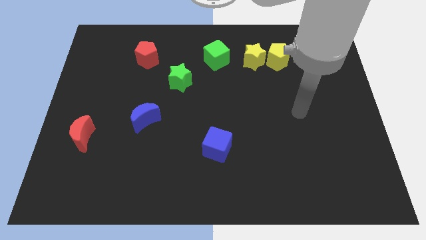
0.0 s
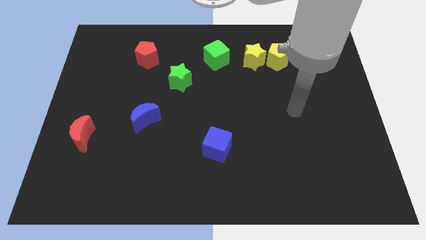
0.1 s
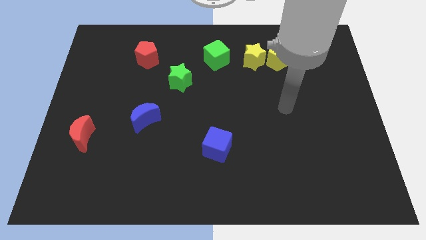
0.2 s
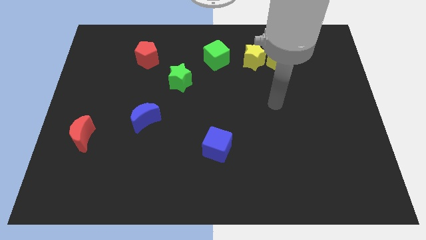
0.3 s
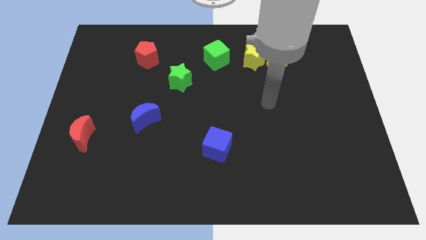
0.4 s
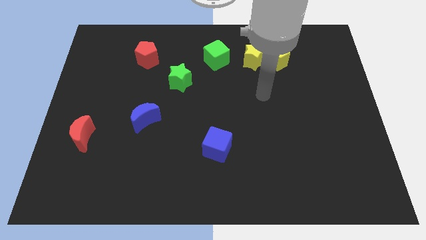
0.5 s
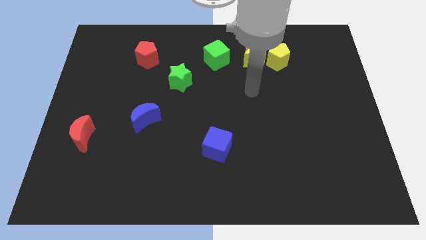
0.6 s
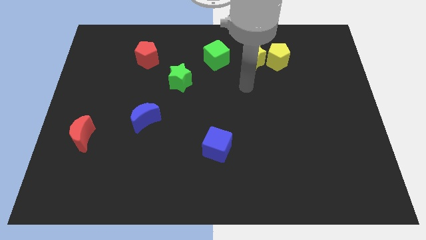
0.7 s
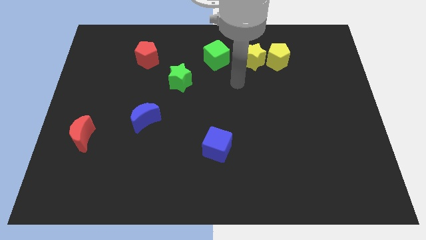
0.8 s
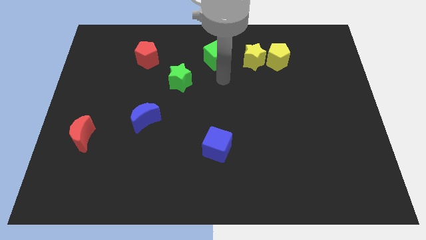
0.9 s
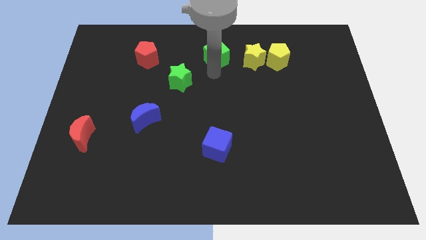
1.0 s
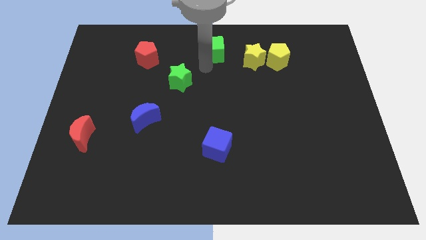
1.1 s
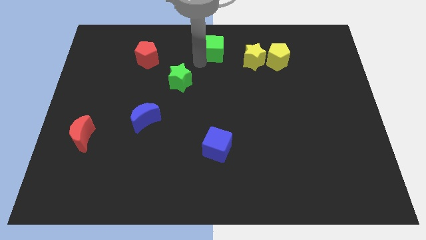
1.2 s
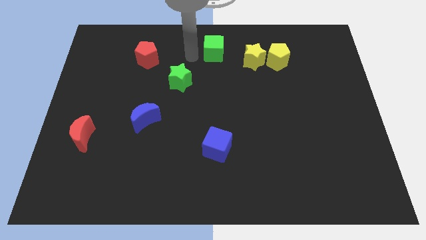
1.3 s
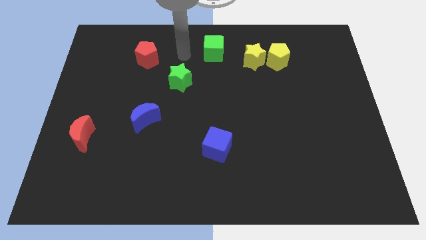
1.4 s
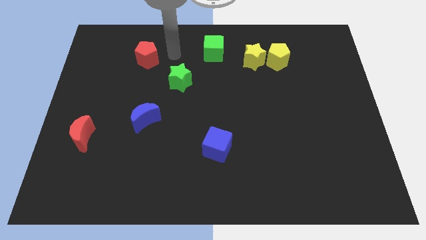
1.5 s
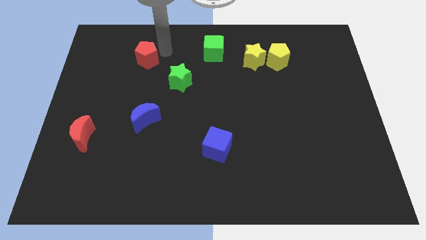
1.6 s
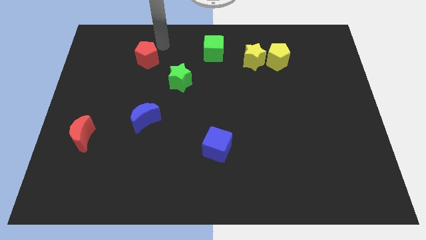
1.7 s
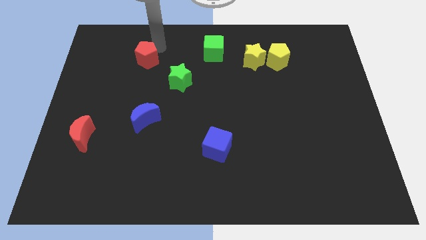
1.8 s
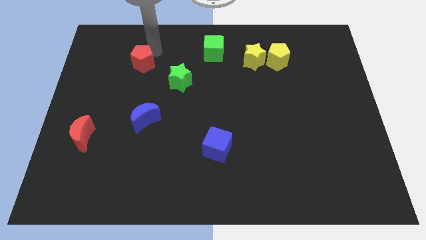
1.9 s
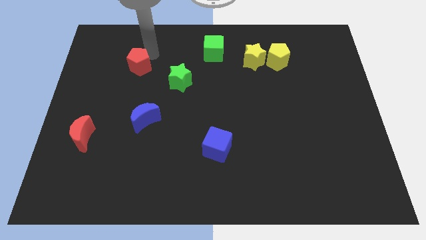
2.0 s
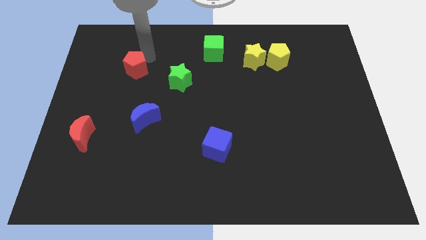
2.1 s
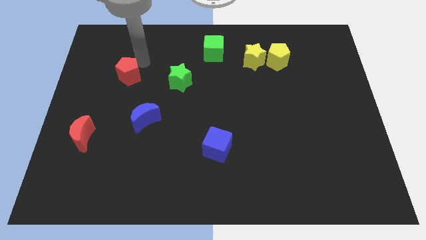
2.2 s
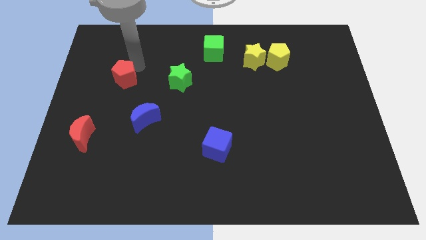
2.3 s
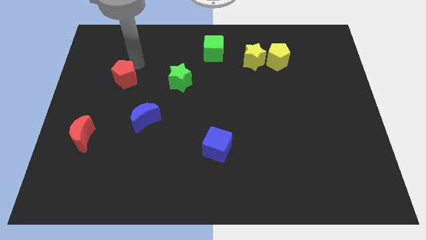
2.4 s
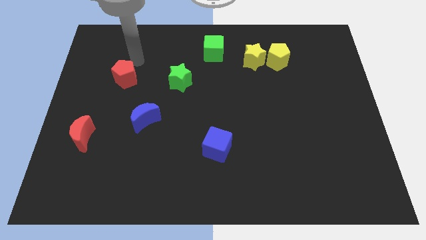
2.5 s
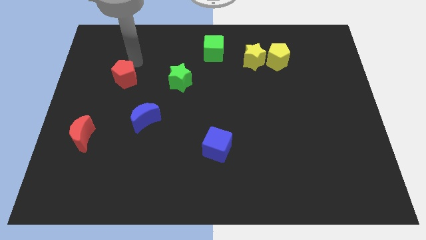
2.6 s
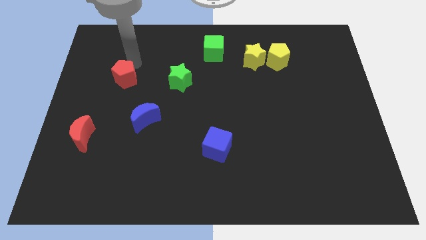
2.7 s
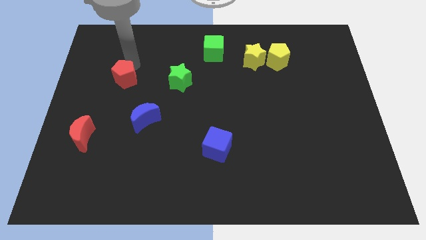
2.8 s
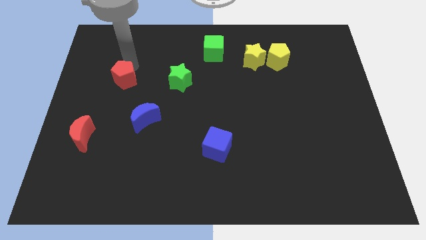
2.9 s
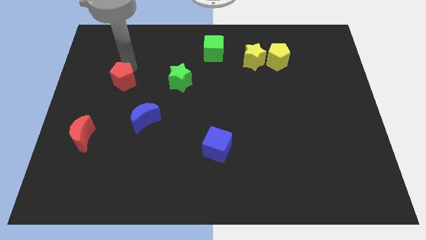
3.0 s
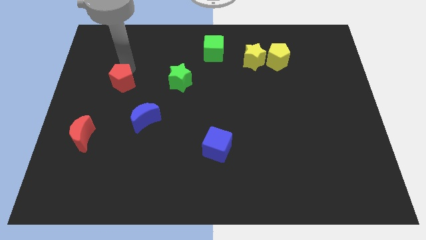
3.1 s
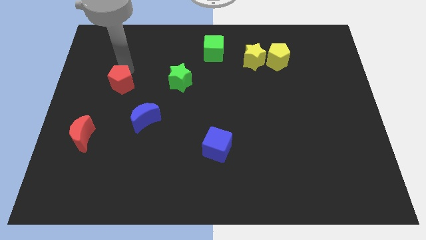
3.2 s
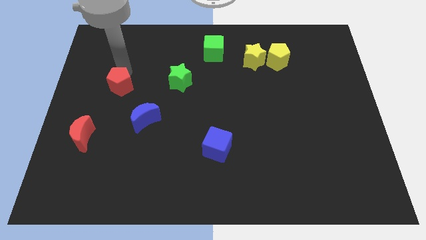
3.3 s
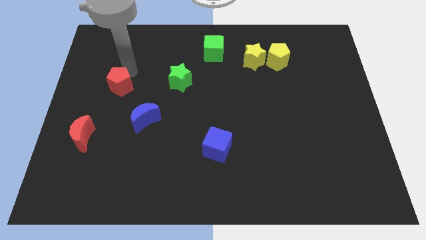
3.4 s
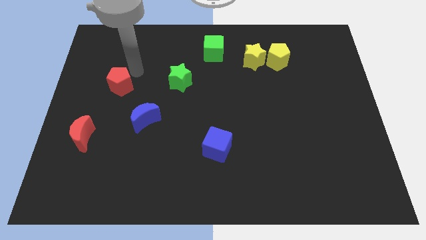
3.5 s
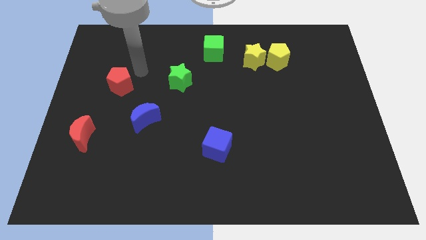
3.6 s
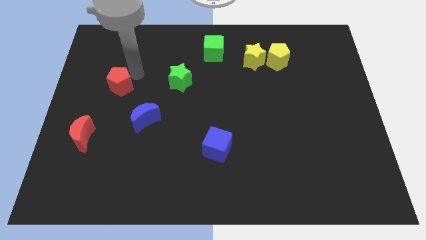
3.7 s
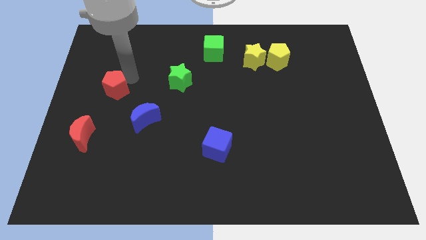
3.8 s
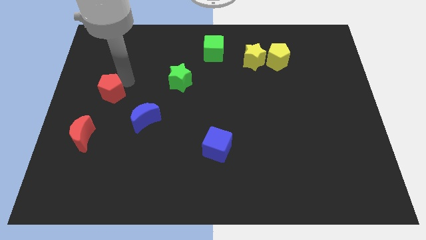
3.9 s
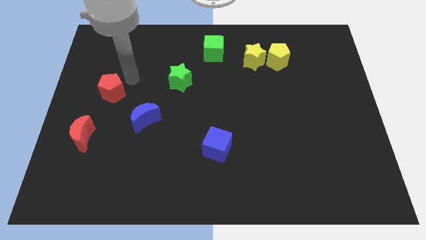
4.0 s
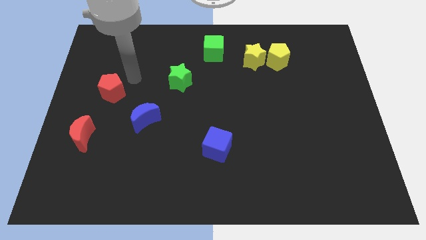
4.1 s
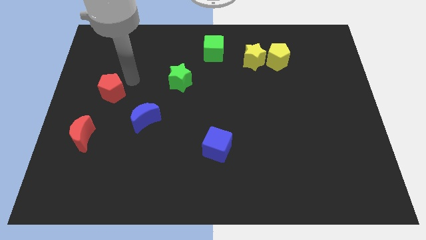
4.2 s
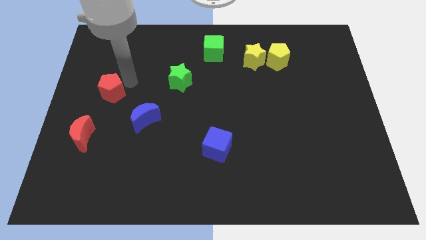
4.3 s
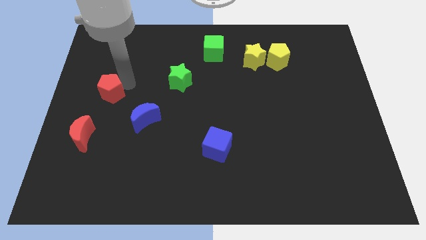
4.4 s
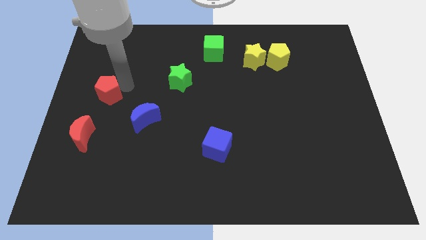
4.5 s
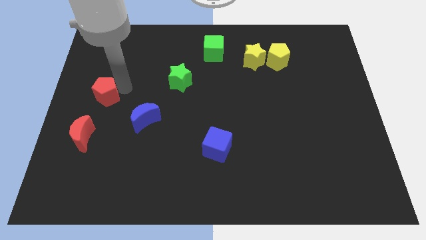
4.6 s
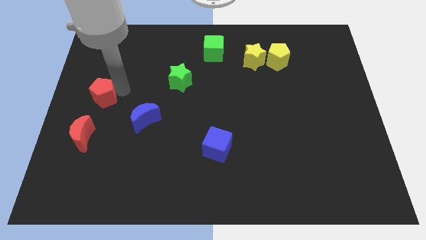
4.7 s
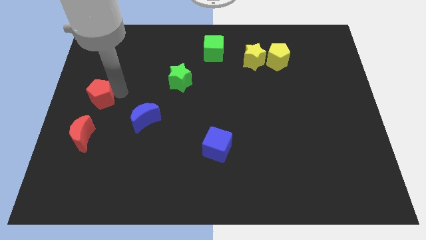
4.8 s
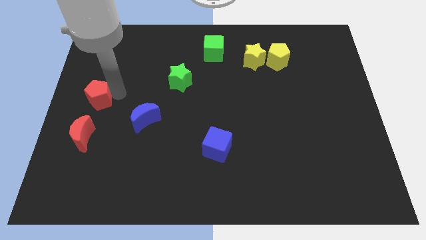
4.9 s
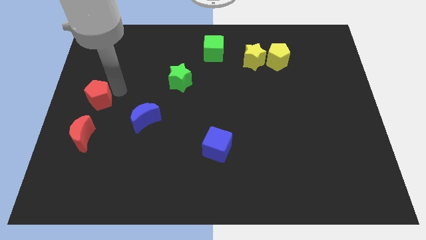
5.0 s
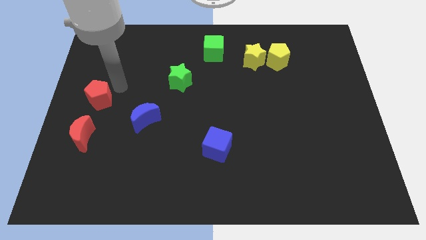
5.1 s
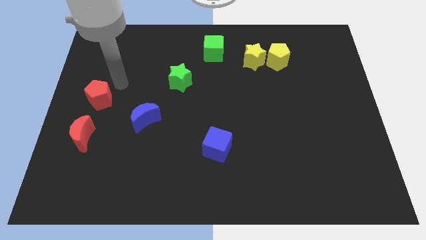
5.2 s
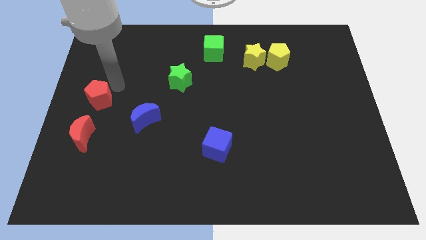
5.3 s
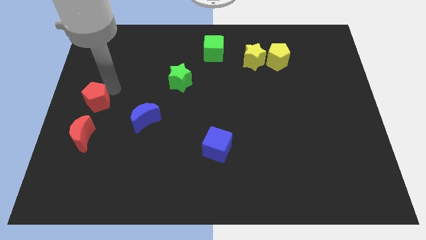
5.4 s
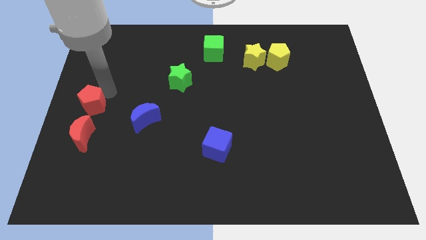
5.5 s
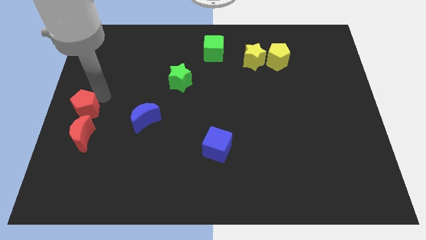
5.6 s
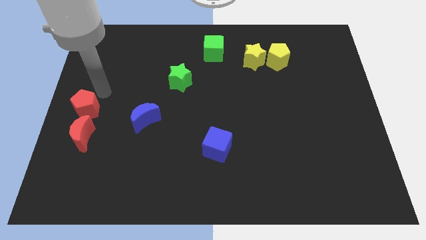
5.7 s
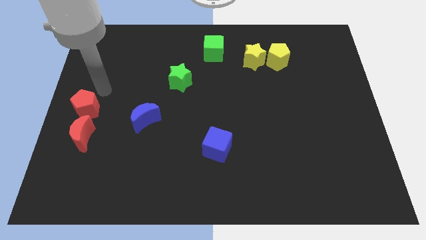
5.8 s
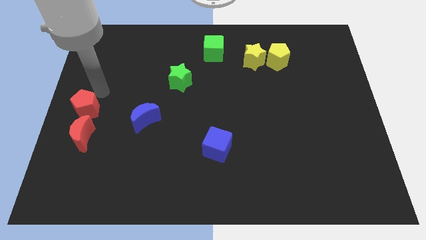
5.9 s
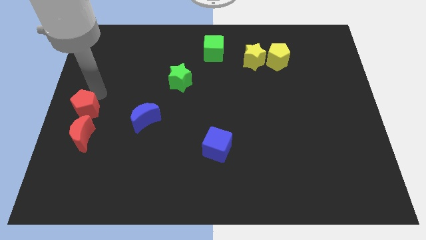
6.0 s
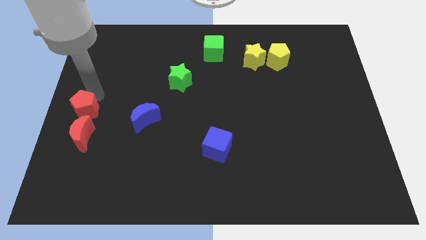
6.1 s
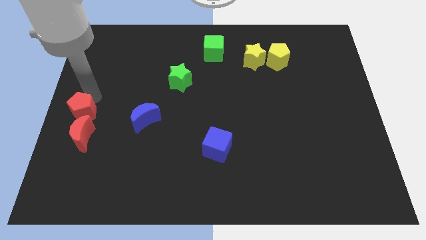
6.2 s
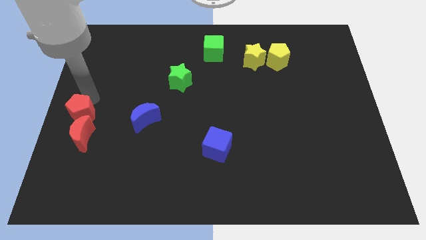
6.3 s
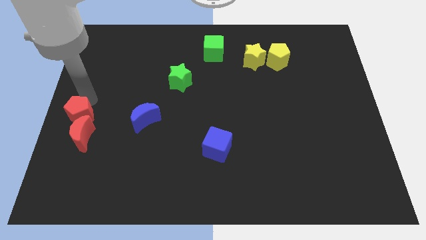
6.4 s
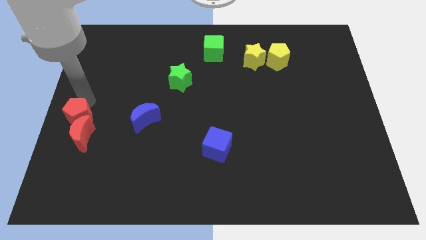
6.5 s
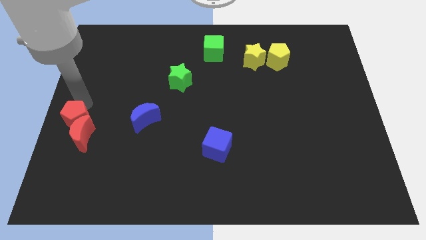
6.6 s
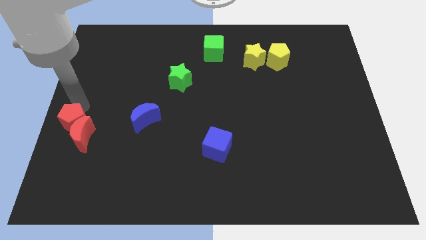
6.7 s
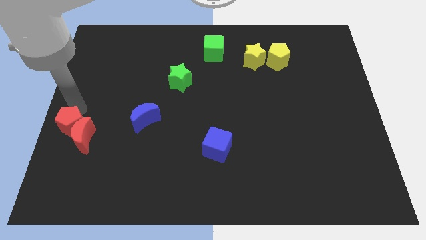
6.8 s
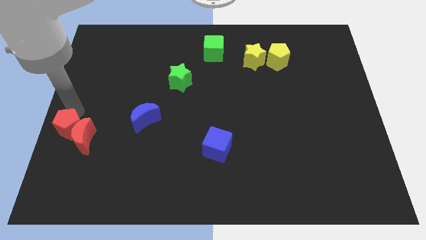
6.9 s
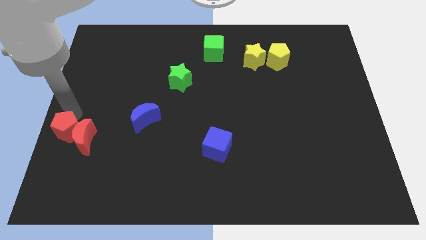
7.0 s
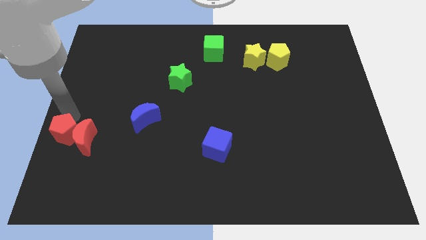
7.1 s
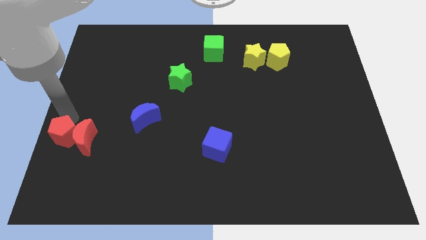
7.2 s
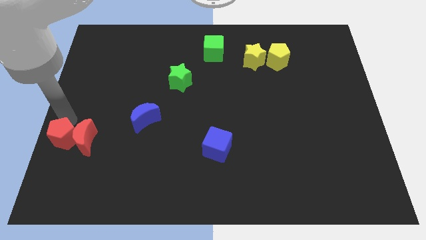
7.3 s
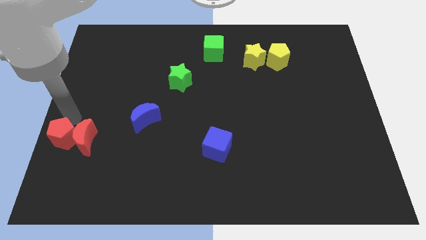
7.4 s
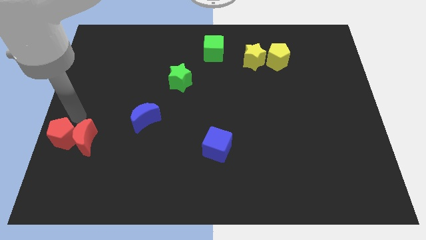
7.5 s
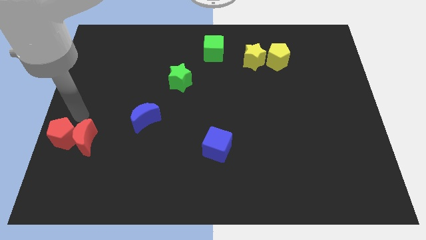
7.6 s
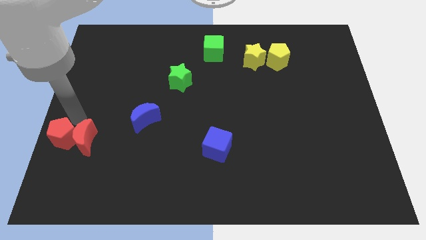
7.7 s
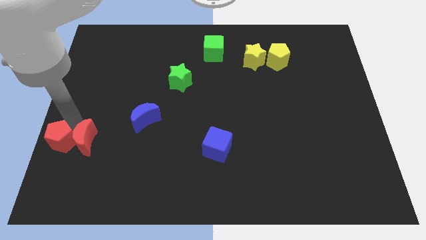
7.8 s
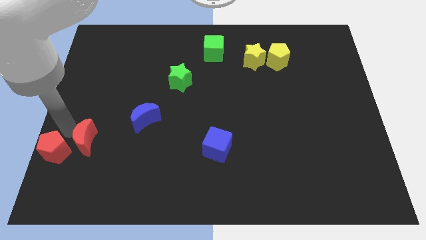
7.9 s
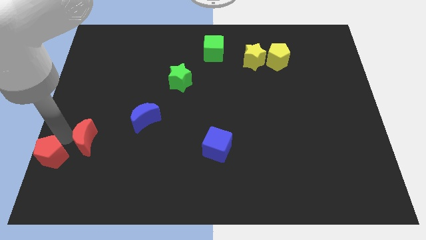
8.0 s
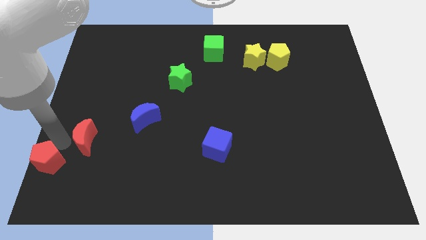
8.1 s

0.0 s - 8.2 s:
push the red pentagon to the bottom left of the board
